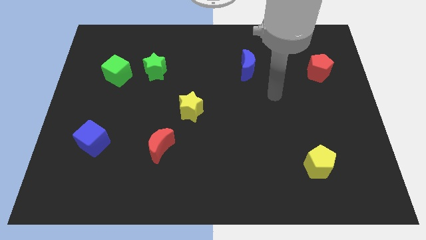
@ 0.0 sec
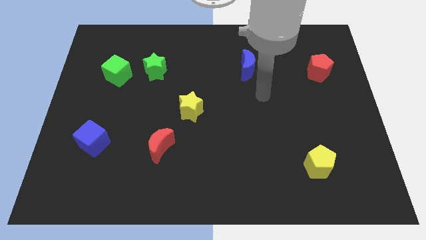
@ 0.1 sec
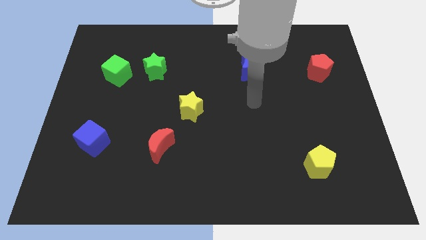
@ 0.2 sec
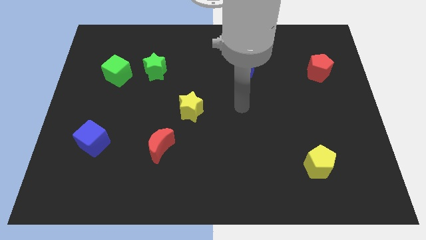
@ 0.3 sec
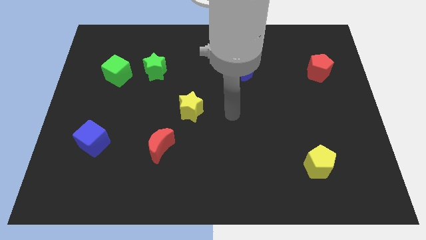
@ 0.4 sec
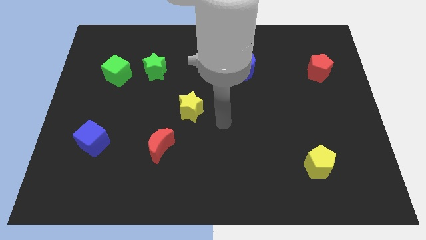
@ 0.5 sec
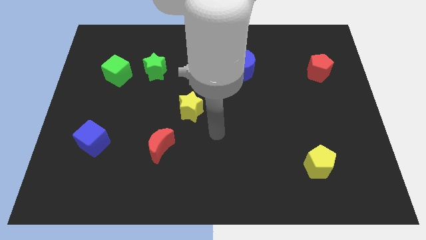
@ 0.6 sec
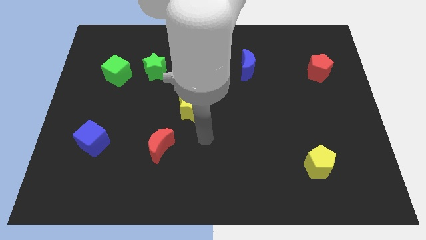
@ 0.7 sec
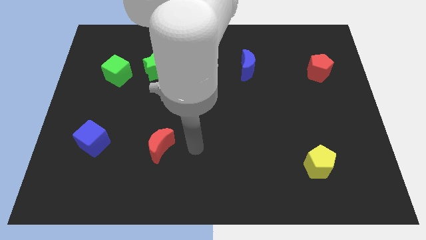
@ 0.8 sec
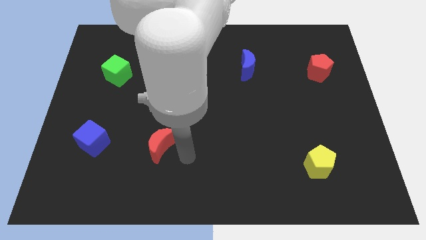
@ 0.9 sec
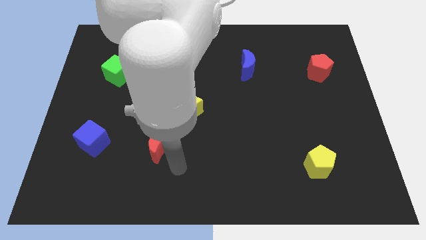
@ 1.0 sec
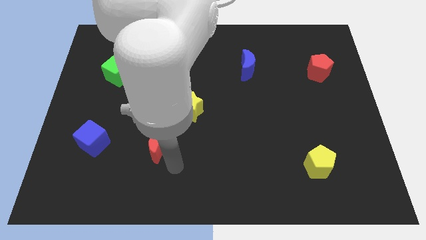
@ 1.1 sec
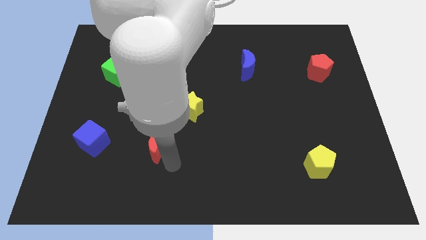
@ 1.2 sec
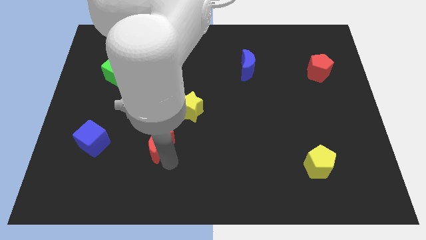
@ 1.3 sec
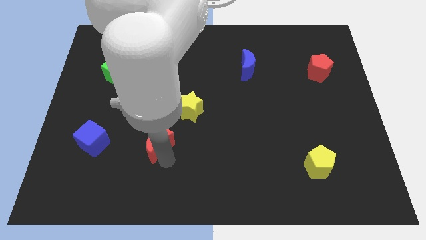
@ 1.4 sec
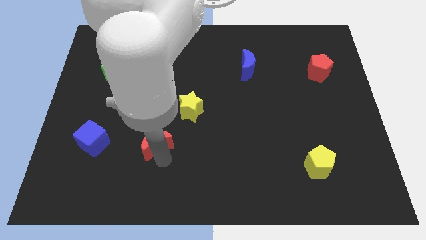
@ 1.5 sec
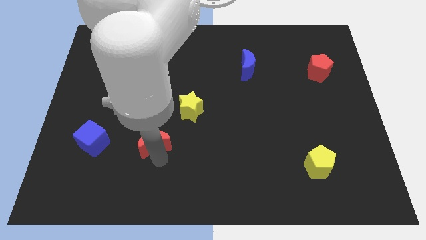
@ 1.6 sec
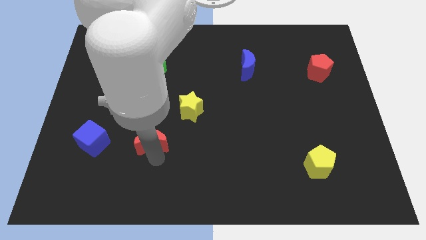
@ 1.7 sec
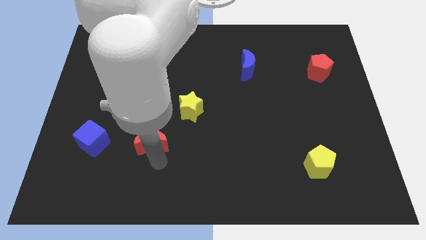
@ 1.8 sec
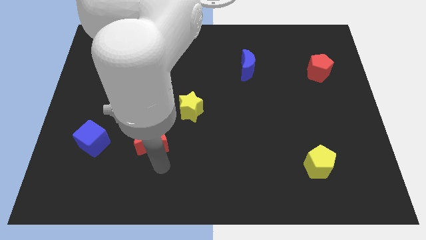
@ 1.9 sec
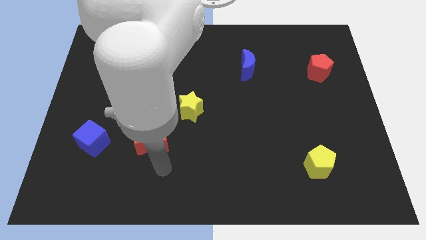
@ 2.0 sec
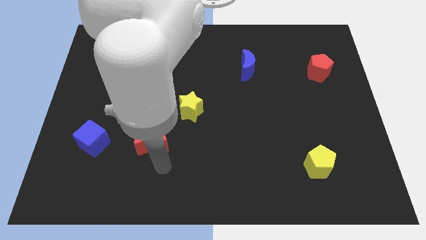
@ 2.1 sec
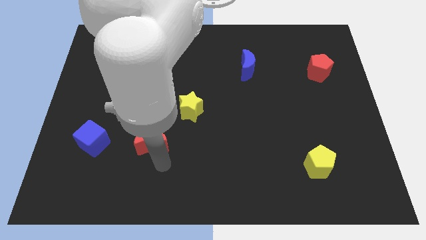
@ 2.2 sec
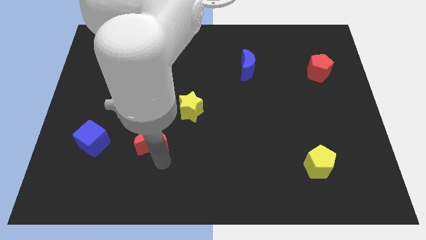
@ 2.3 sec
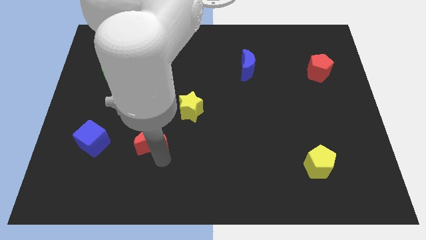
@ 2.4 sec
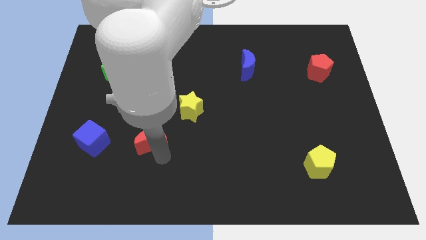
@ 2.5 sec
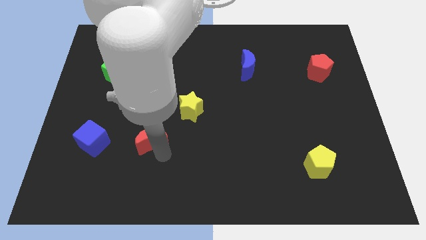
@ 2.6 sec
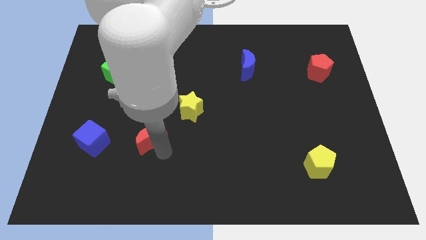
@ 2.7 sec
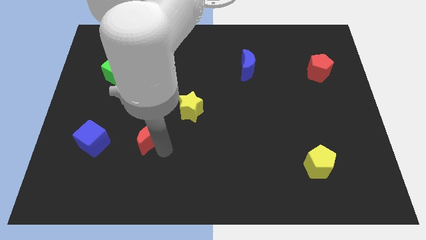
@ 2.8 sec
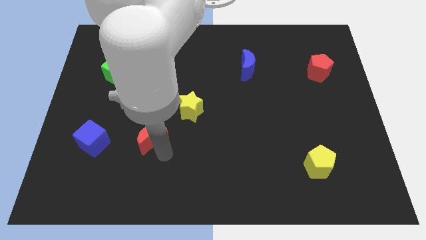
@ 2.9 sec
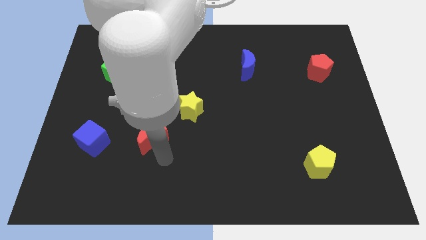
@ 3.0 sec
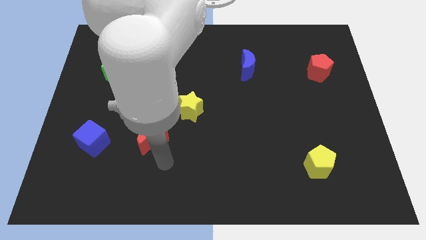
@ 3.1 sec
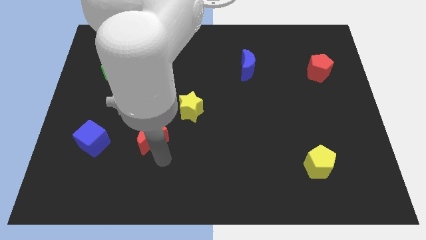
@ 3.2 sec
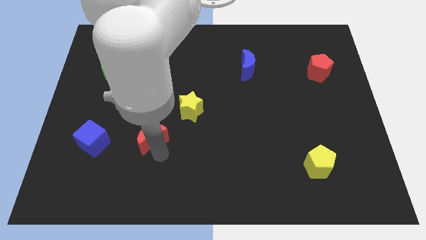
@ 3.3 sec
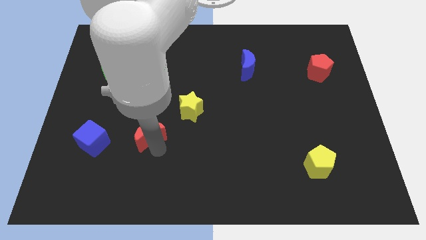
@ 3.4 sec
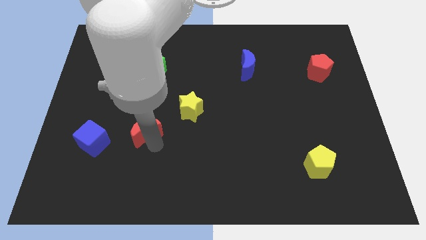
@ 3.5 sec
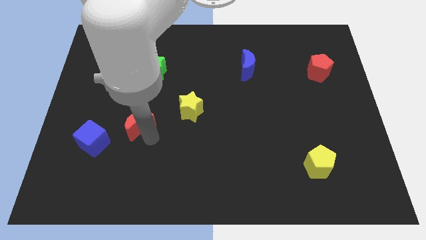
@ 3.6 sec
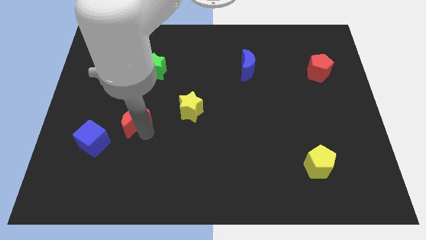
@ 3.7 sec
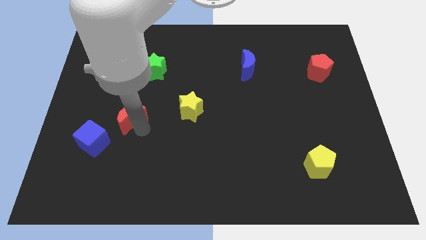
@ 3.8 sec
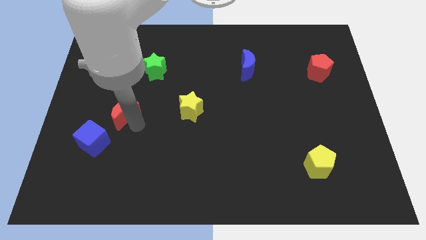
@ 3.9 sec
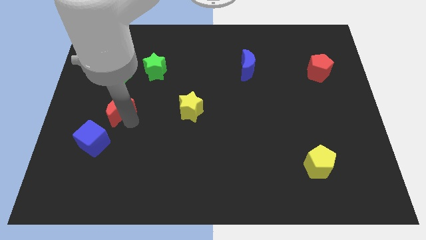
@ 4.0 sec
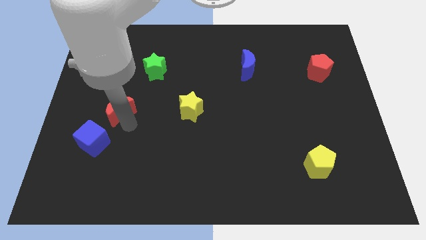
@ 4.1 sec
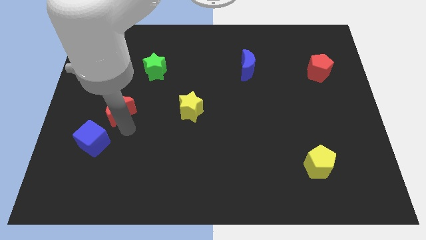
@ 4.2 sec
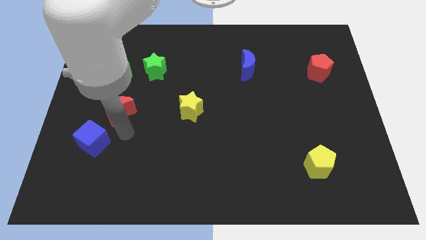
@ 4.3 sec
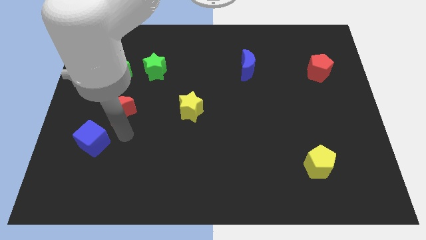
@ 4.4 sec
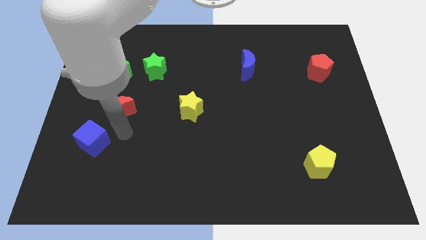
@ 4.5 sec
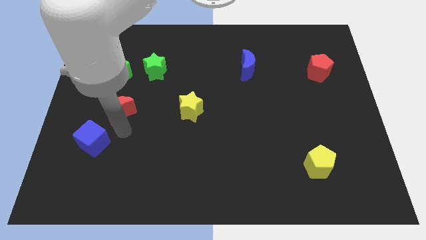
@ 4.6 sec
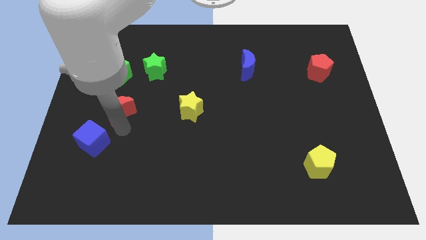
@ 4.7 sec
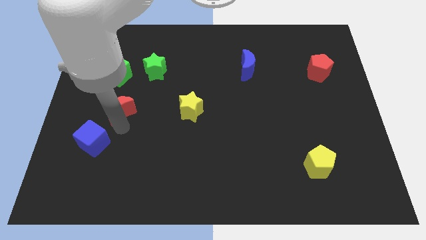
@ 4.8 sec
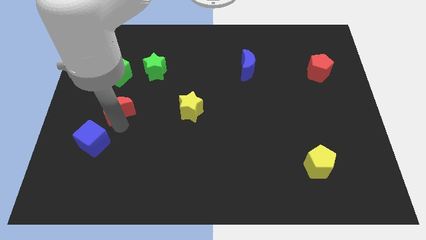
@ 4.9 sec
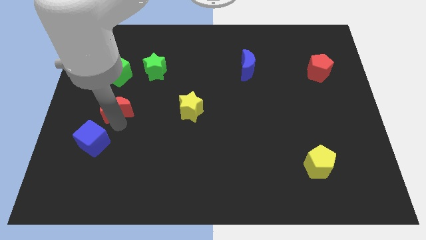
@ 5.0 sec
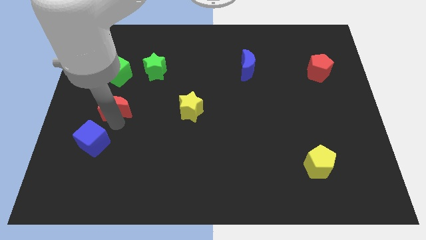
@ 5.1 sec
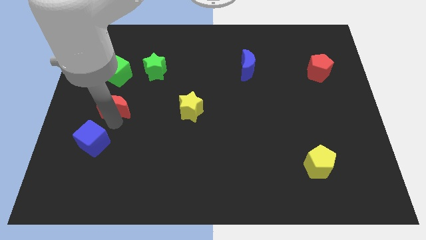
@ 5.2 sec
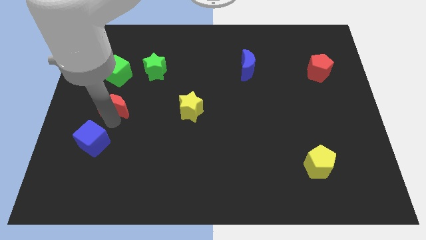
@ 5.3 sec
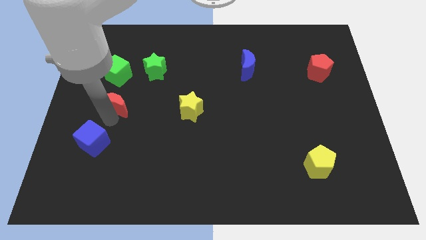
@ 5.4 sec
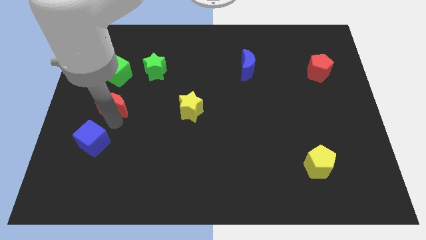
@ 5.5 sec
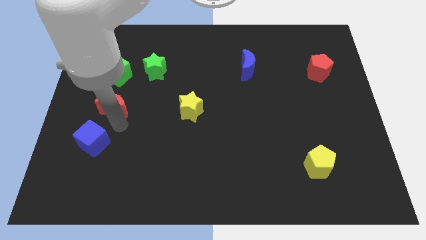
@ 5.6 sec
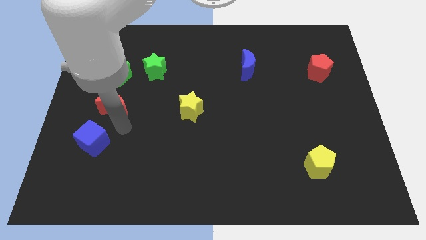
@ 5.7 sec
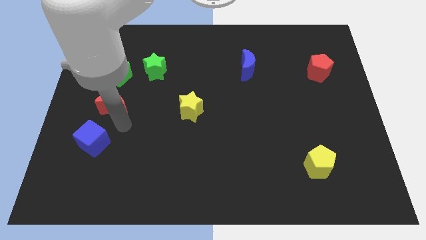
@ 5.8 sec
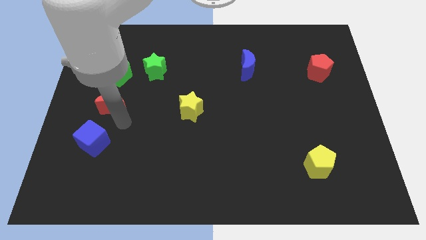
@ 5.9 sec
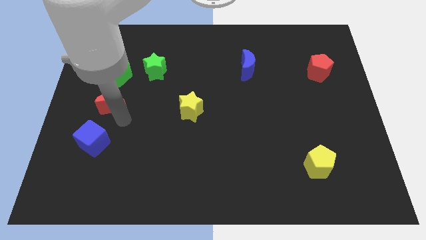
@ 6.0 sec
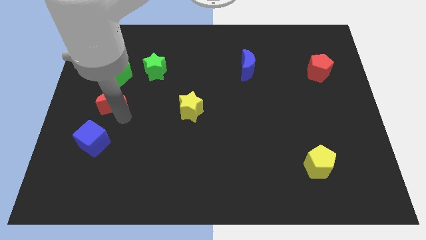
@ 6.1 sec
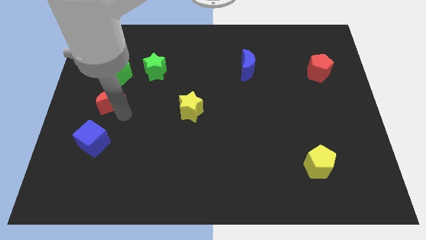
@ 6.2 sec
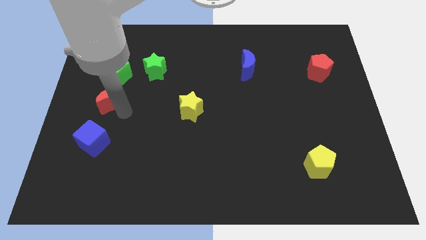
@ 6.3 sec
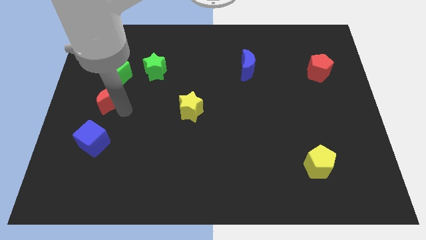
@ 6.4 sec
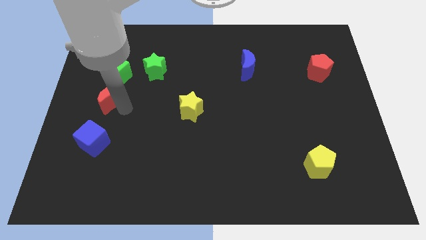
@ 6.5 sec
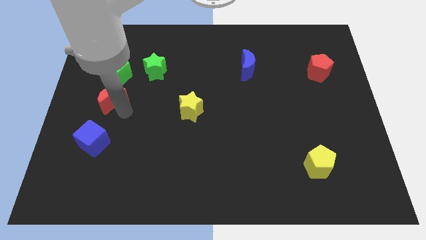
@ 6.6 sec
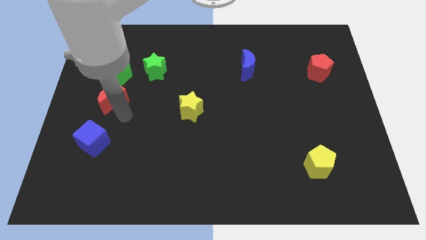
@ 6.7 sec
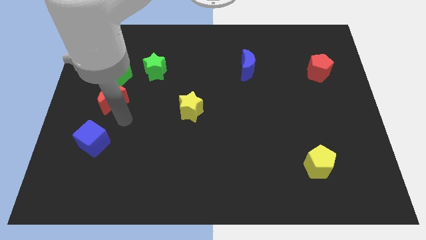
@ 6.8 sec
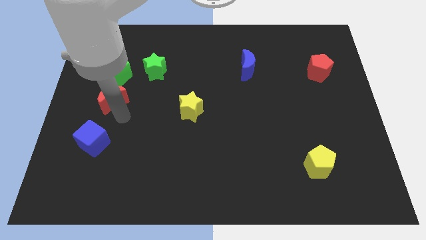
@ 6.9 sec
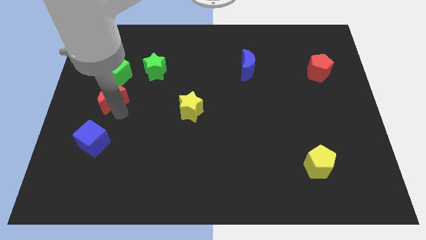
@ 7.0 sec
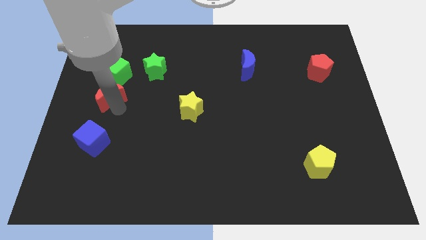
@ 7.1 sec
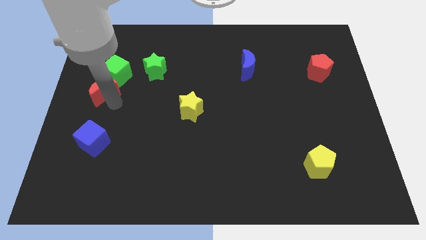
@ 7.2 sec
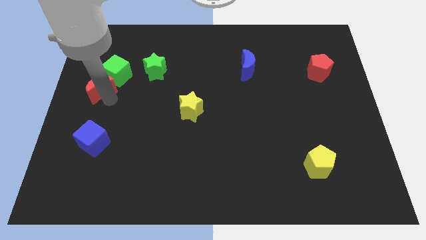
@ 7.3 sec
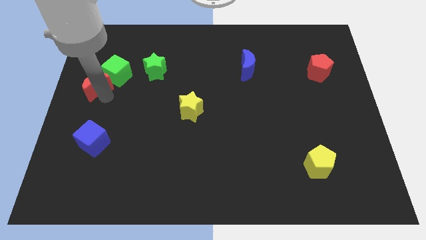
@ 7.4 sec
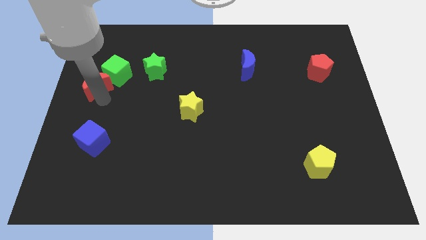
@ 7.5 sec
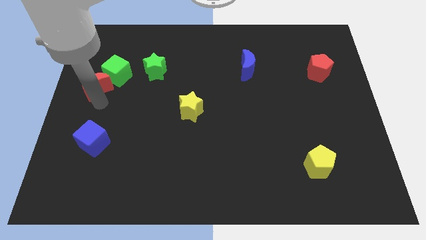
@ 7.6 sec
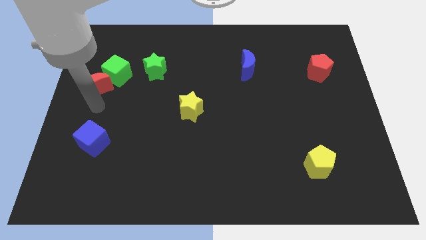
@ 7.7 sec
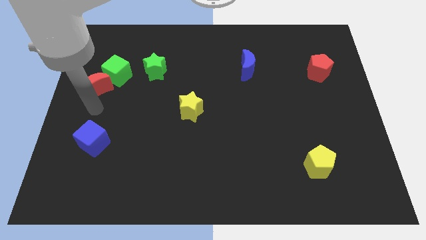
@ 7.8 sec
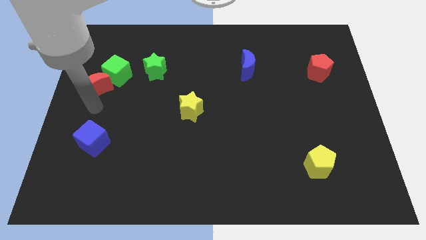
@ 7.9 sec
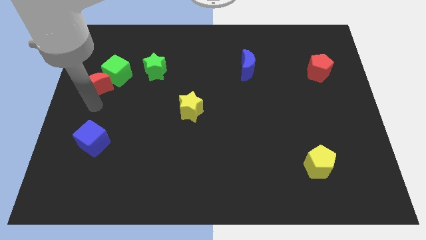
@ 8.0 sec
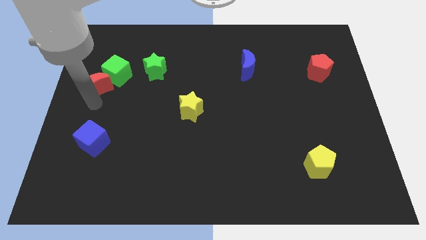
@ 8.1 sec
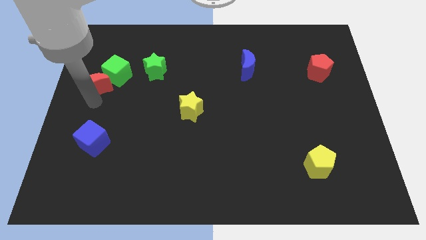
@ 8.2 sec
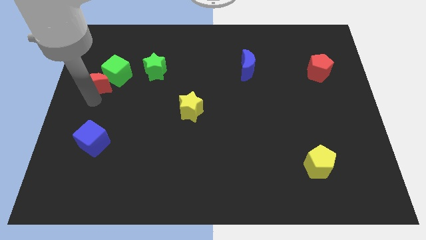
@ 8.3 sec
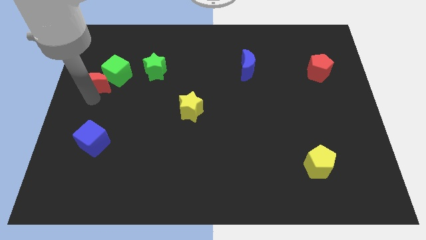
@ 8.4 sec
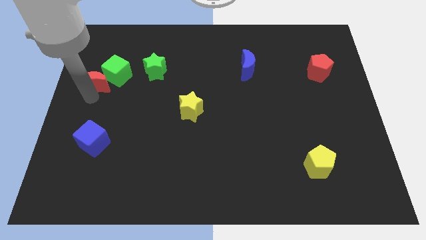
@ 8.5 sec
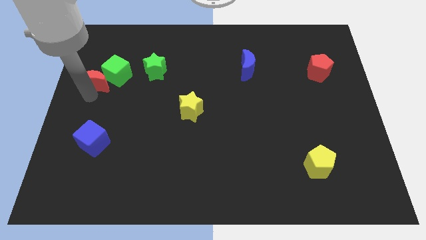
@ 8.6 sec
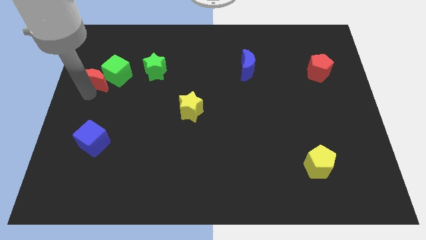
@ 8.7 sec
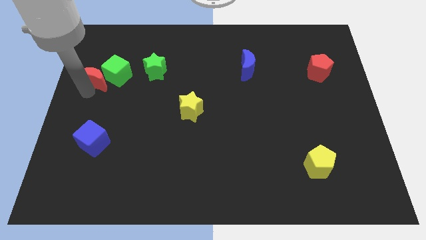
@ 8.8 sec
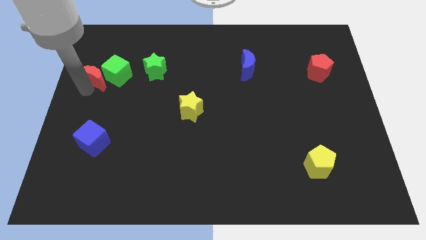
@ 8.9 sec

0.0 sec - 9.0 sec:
push the red moon just left of the green star
